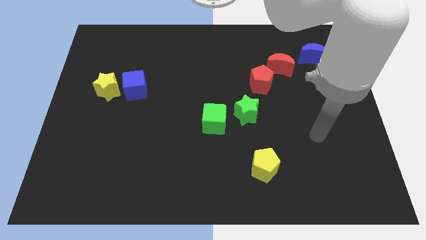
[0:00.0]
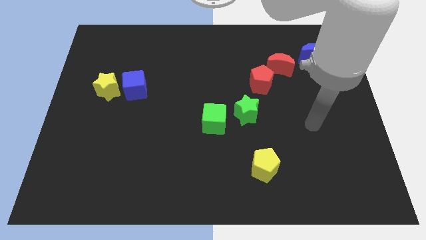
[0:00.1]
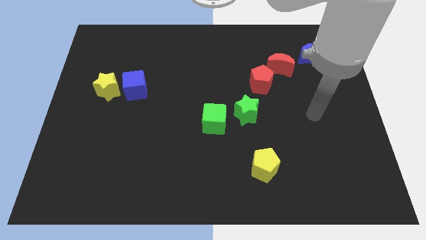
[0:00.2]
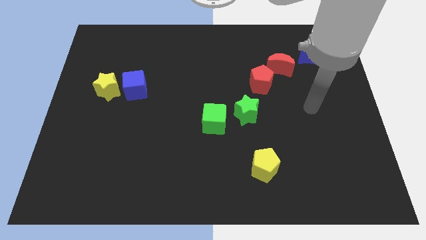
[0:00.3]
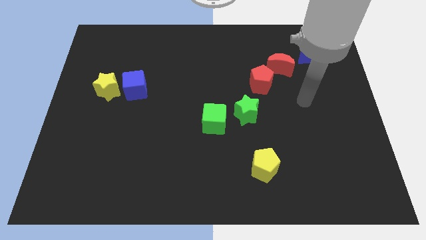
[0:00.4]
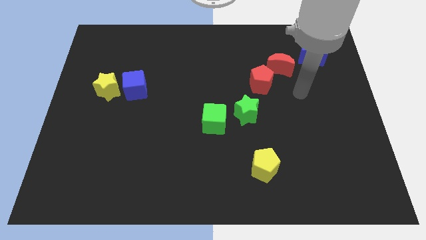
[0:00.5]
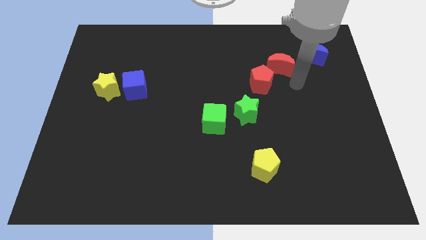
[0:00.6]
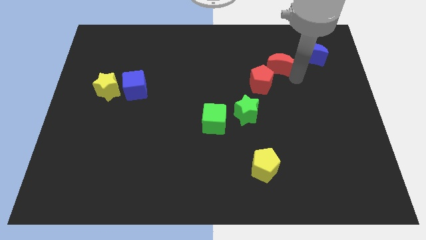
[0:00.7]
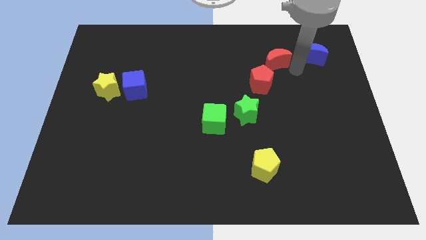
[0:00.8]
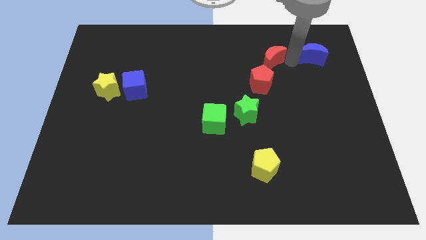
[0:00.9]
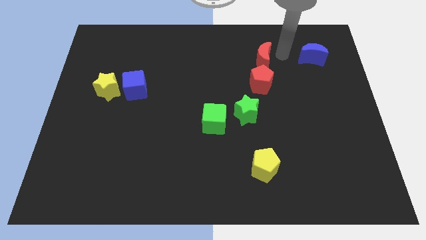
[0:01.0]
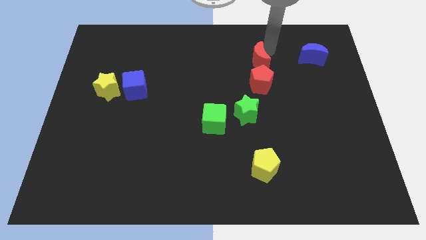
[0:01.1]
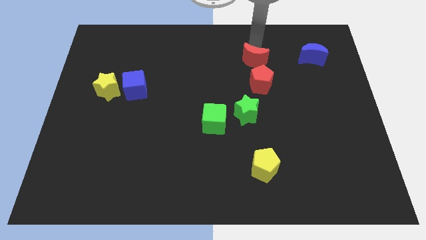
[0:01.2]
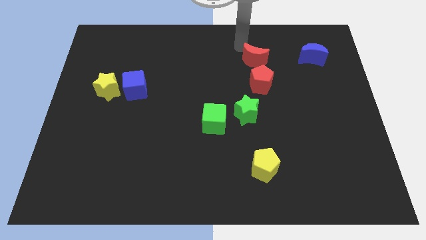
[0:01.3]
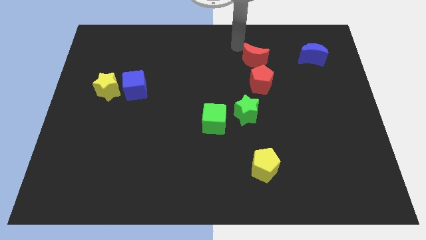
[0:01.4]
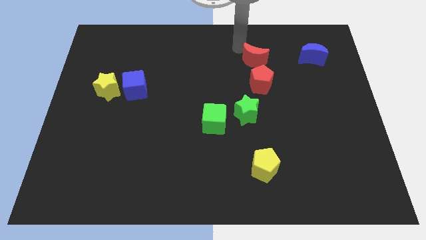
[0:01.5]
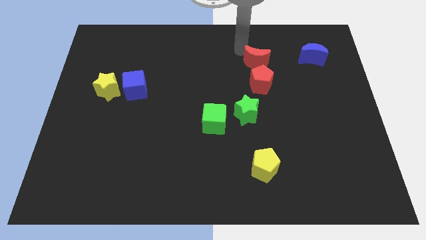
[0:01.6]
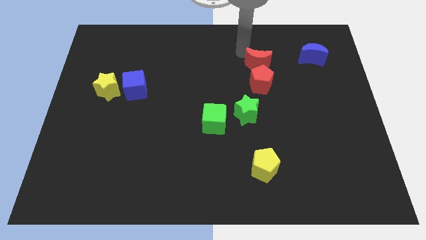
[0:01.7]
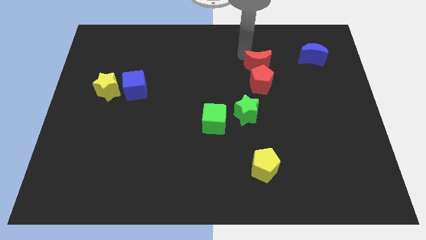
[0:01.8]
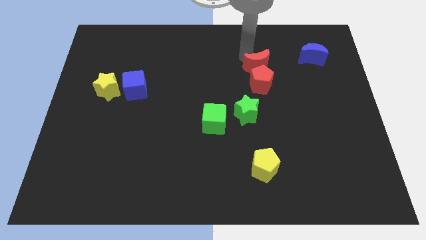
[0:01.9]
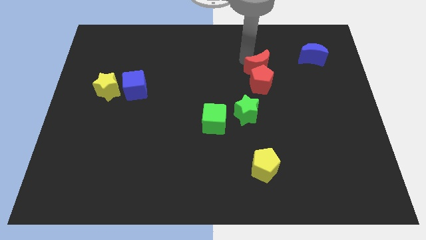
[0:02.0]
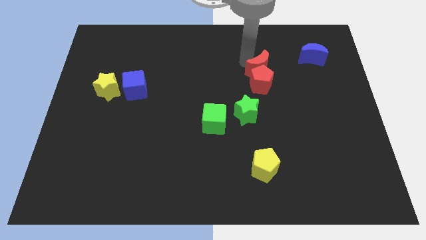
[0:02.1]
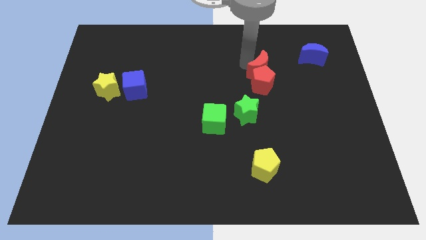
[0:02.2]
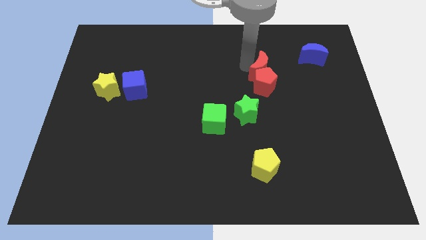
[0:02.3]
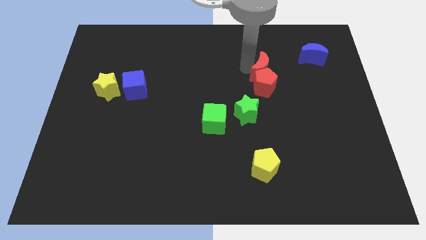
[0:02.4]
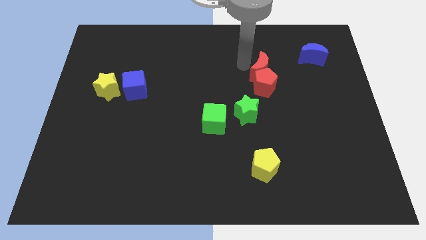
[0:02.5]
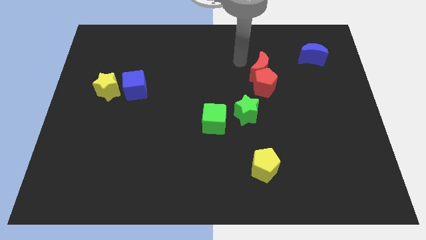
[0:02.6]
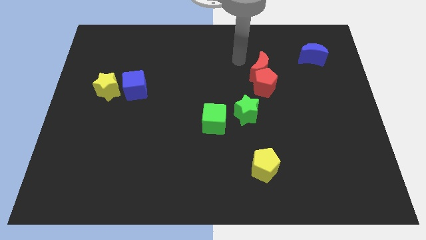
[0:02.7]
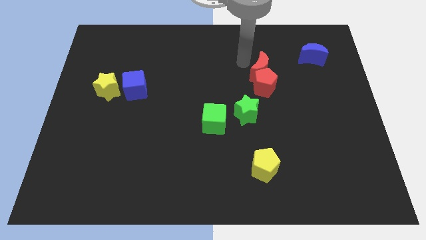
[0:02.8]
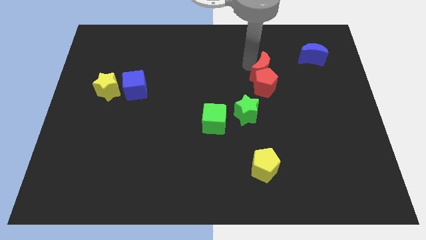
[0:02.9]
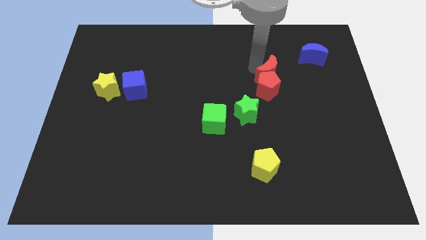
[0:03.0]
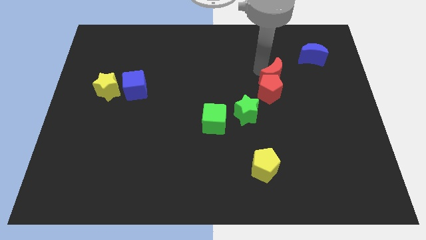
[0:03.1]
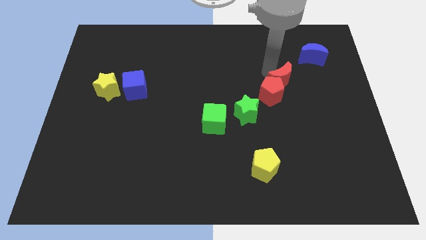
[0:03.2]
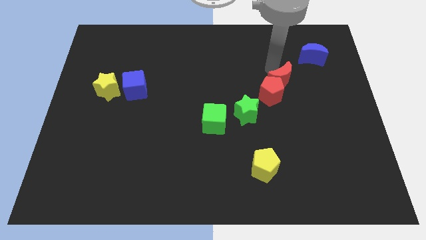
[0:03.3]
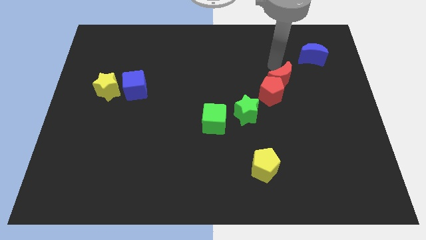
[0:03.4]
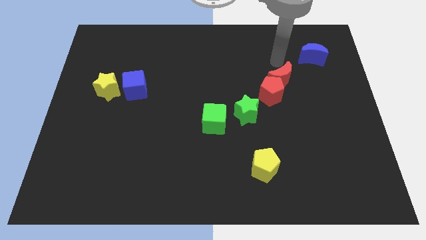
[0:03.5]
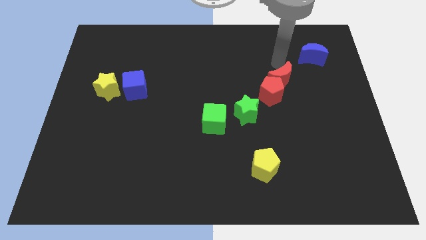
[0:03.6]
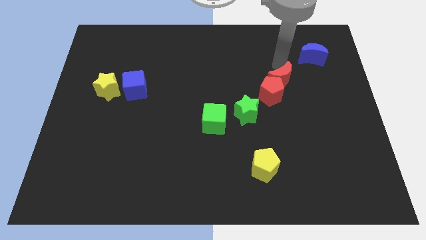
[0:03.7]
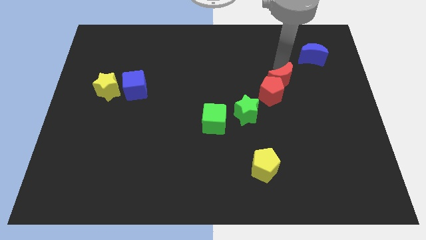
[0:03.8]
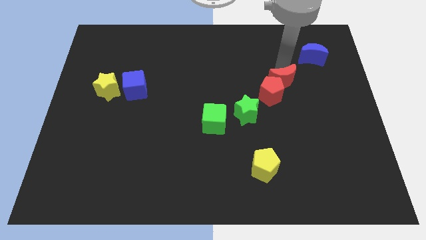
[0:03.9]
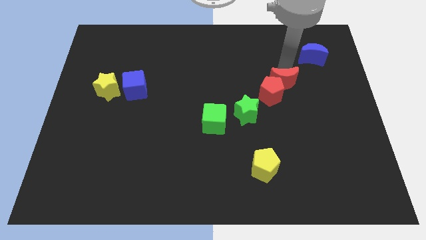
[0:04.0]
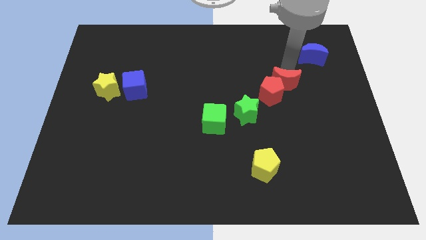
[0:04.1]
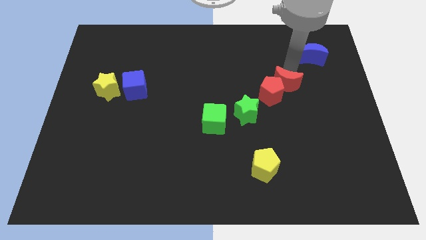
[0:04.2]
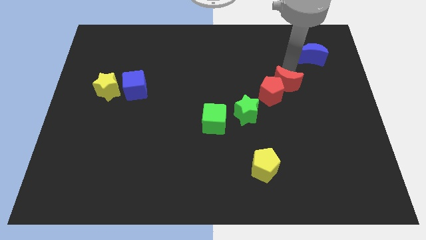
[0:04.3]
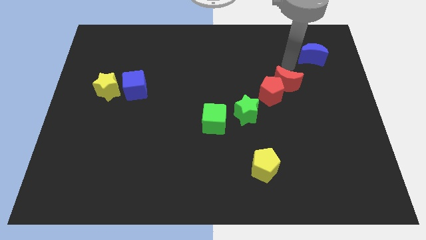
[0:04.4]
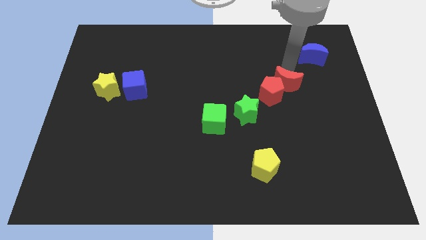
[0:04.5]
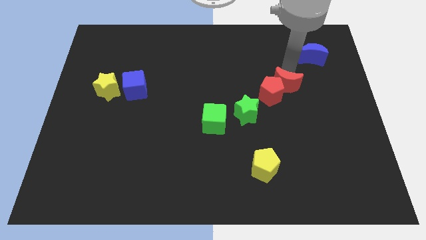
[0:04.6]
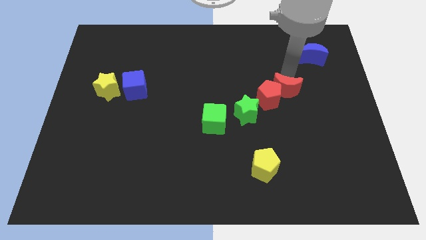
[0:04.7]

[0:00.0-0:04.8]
slide the red moon a little bit down

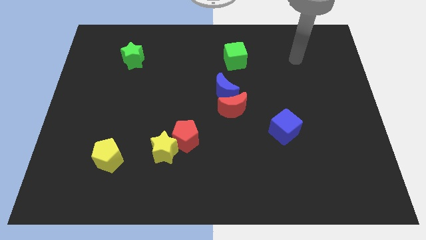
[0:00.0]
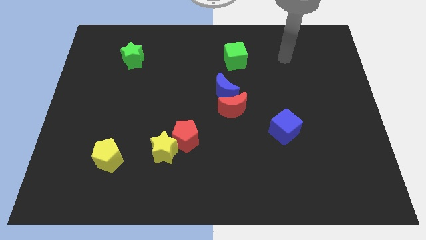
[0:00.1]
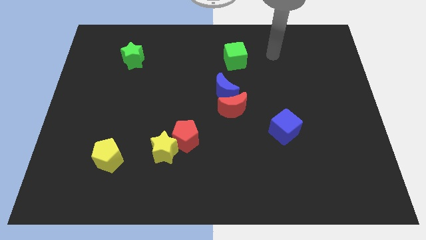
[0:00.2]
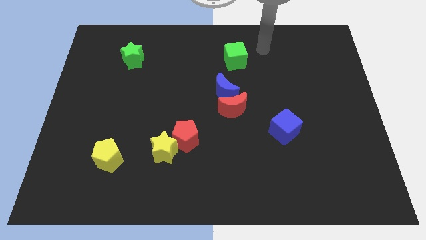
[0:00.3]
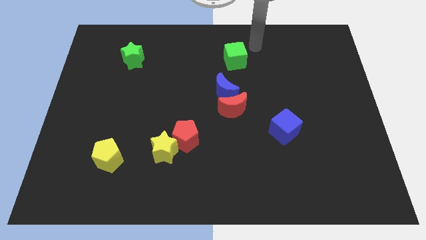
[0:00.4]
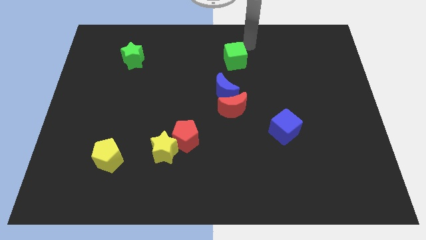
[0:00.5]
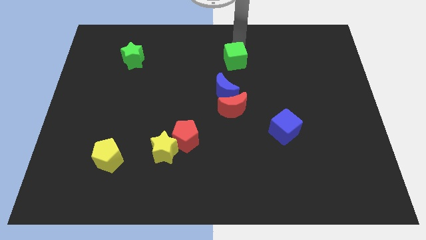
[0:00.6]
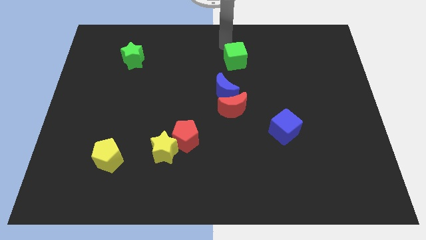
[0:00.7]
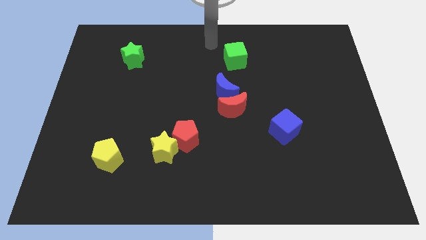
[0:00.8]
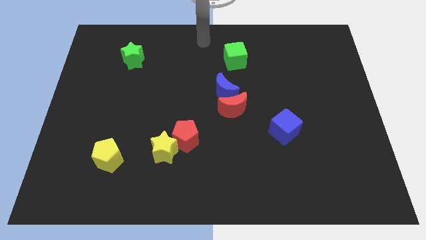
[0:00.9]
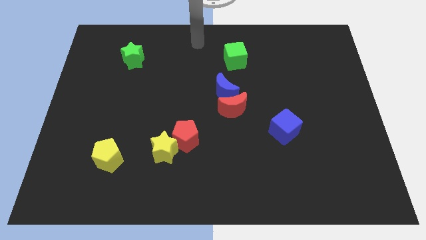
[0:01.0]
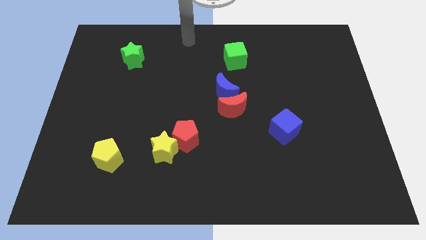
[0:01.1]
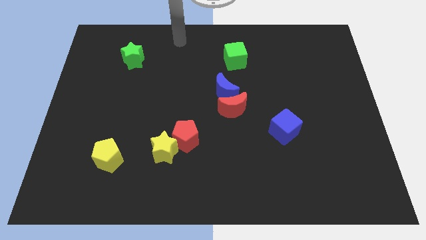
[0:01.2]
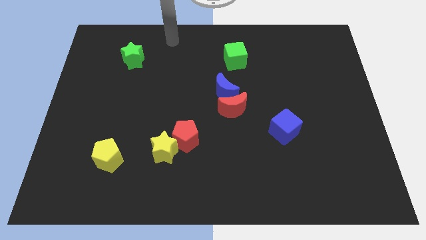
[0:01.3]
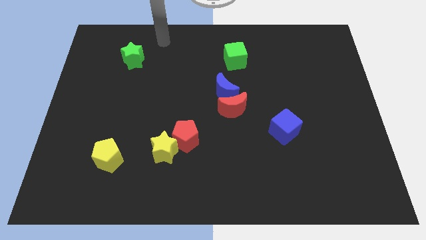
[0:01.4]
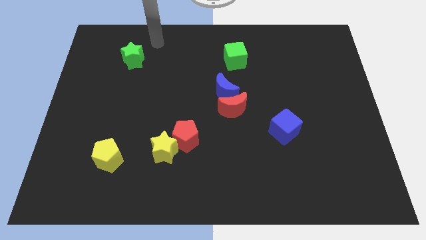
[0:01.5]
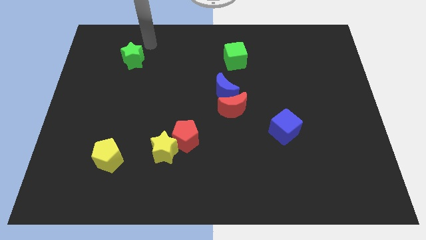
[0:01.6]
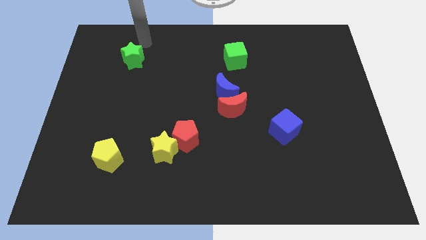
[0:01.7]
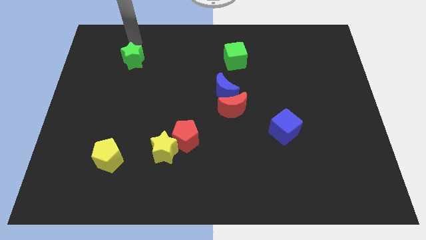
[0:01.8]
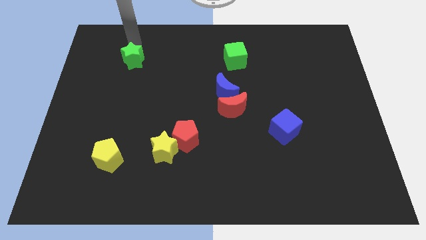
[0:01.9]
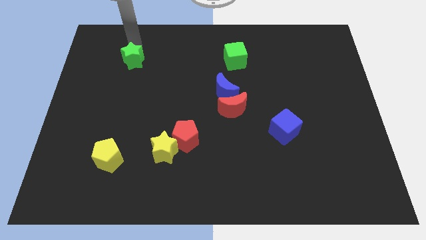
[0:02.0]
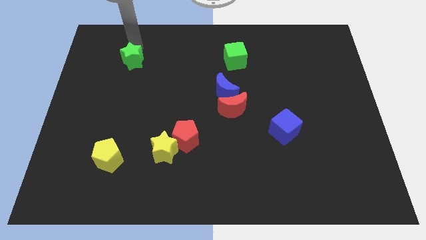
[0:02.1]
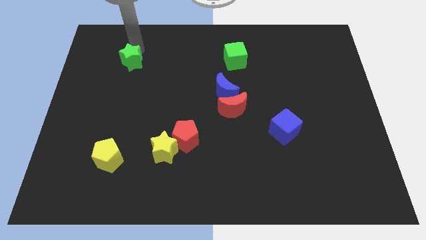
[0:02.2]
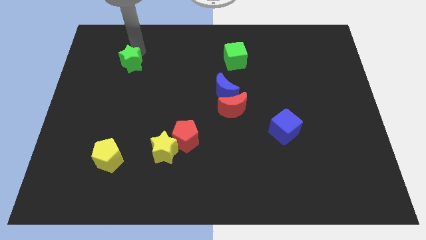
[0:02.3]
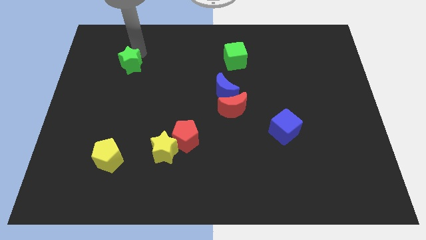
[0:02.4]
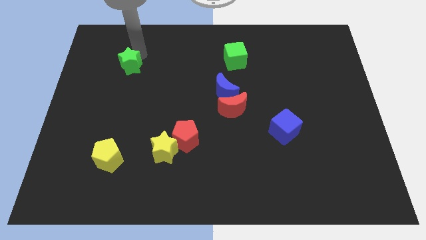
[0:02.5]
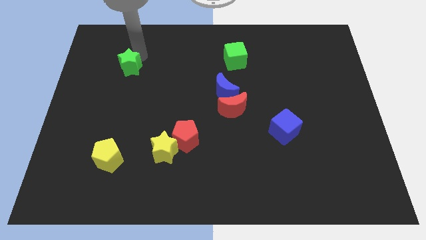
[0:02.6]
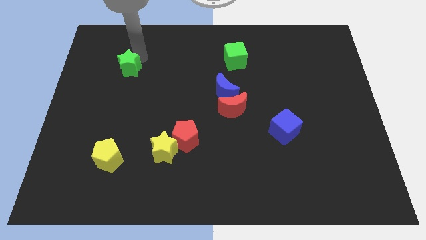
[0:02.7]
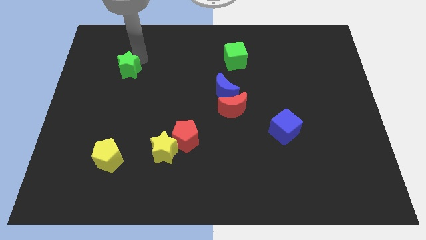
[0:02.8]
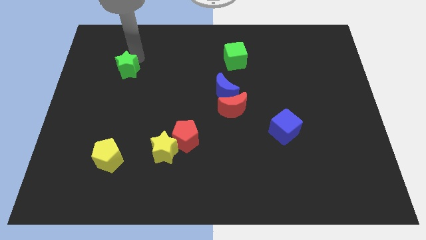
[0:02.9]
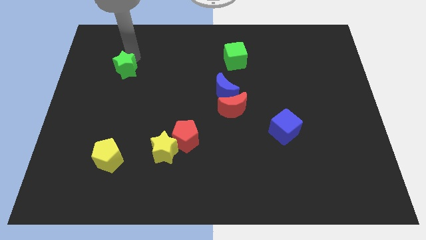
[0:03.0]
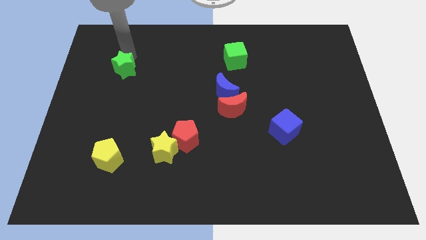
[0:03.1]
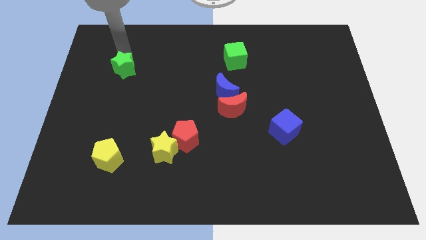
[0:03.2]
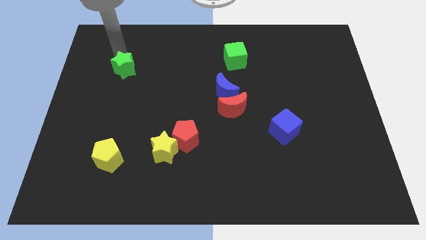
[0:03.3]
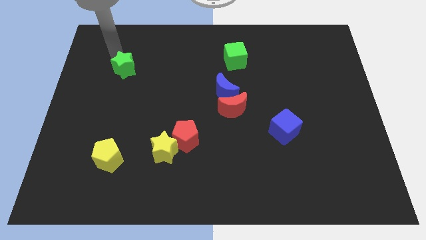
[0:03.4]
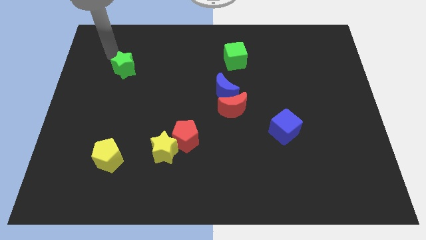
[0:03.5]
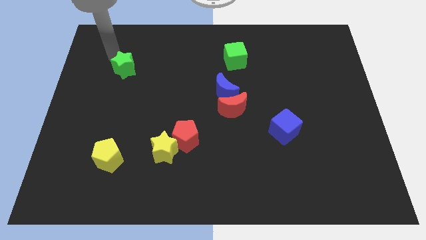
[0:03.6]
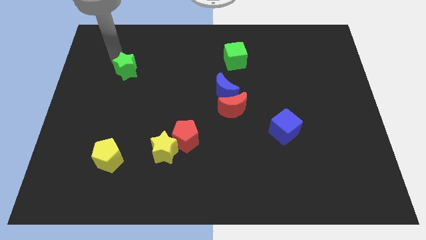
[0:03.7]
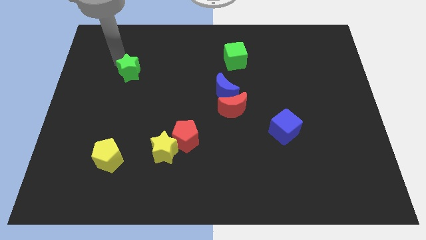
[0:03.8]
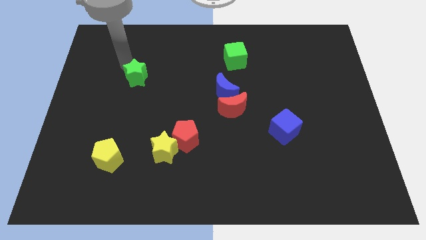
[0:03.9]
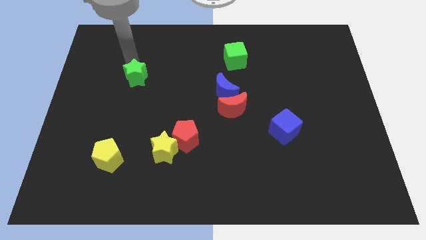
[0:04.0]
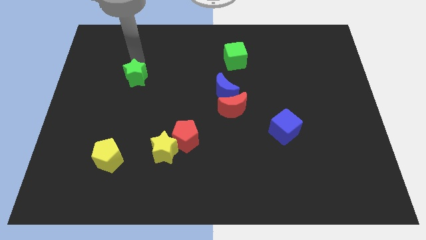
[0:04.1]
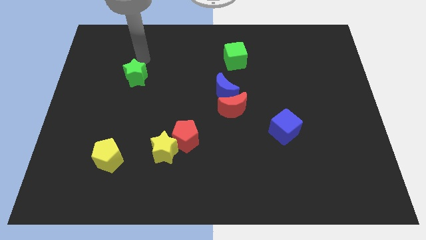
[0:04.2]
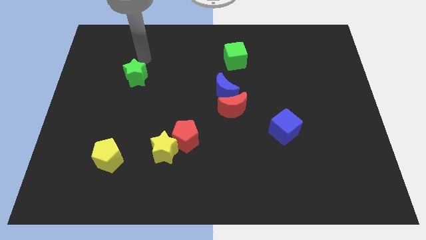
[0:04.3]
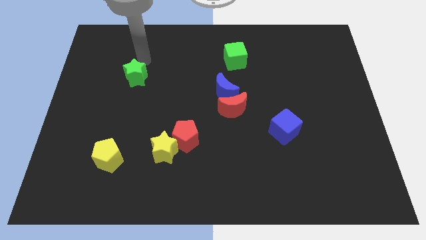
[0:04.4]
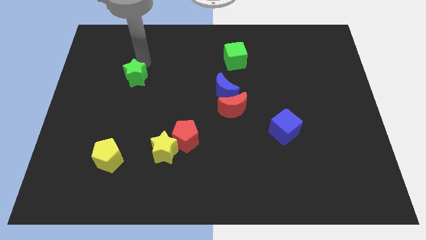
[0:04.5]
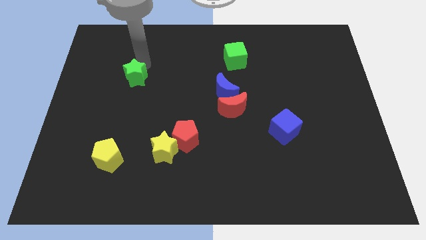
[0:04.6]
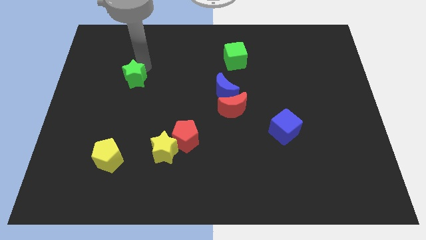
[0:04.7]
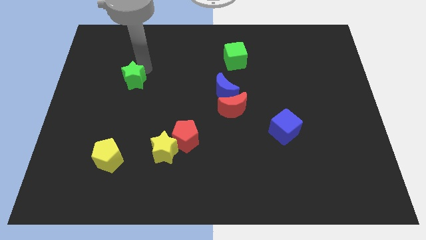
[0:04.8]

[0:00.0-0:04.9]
slightly push the green star downwards
